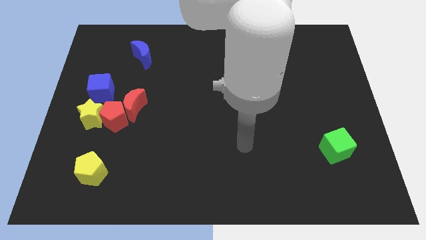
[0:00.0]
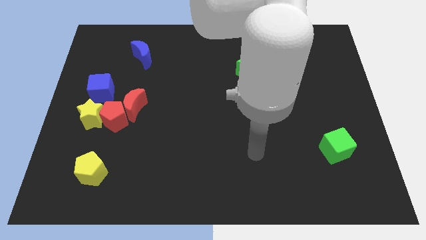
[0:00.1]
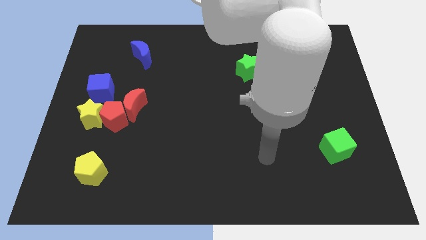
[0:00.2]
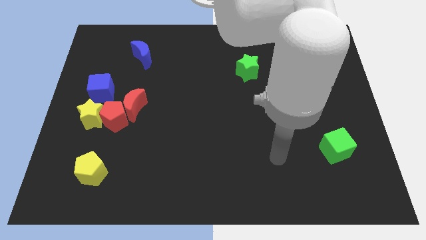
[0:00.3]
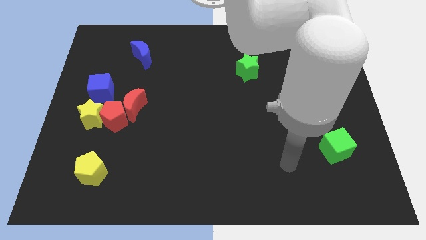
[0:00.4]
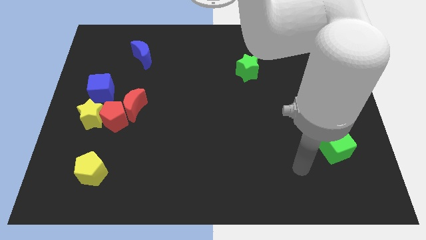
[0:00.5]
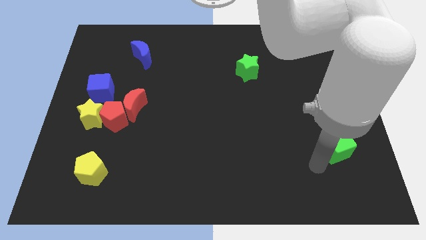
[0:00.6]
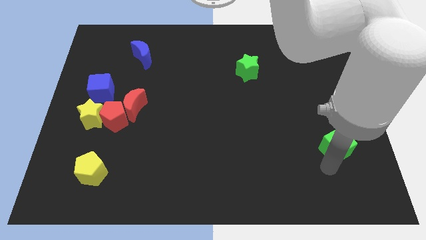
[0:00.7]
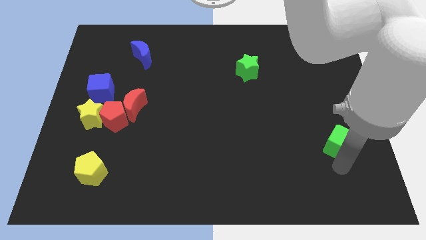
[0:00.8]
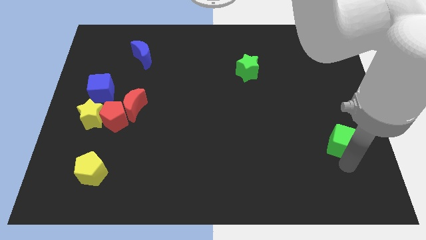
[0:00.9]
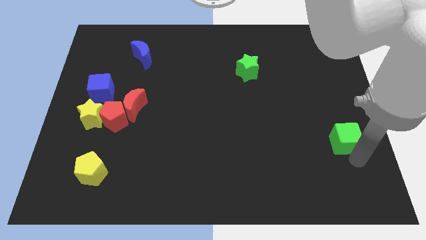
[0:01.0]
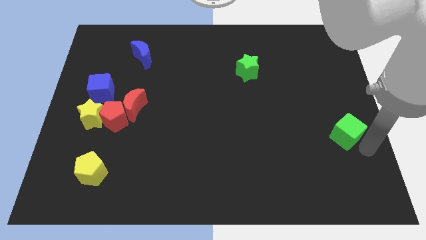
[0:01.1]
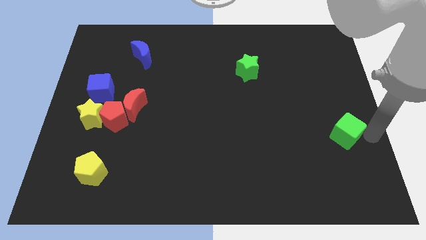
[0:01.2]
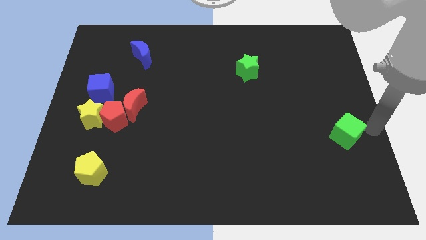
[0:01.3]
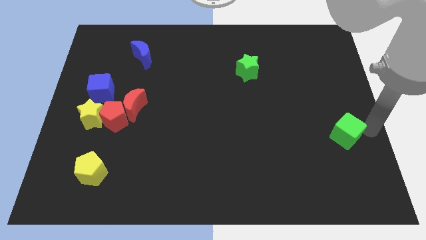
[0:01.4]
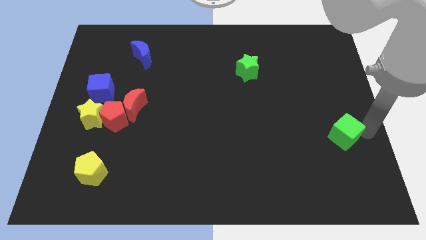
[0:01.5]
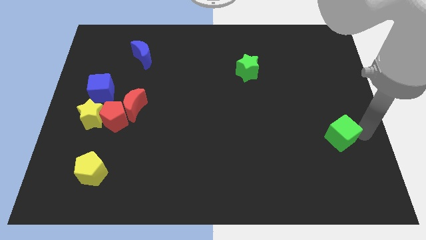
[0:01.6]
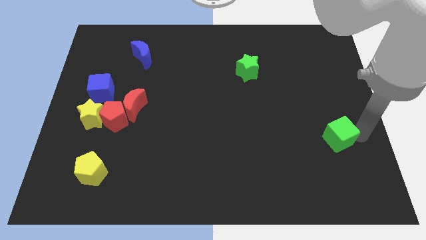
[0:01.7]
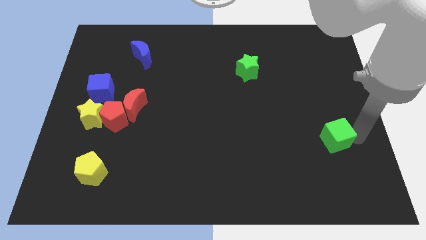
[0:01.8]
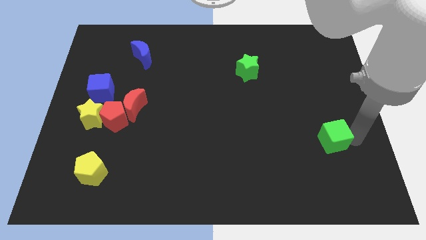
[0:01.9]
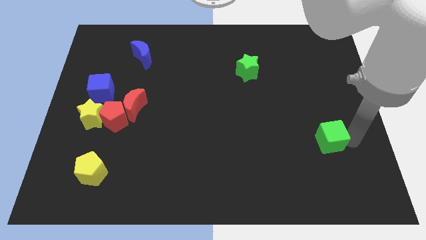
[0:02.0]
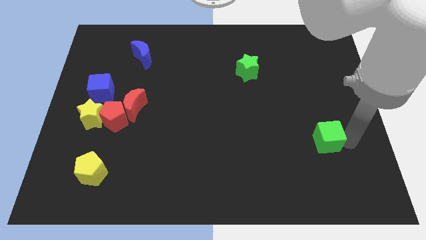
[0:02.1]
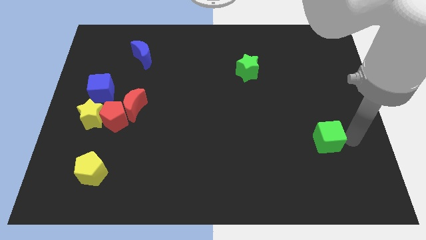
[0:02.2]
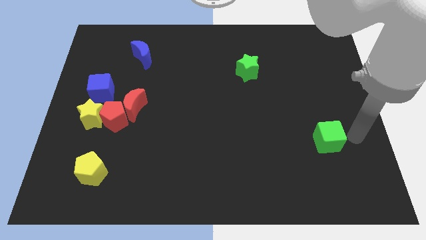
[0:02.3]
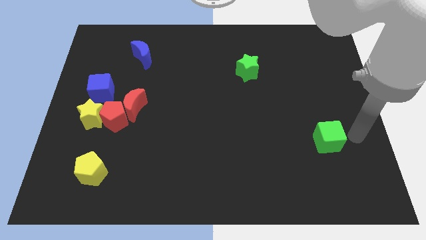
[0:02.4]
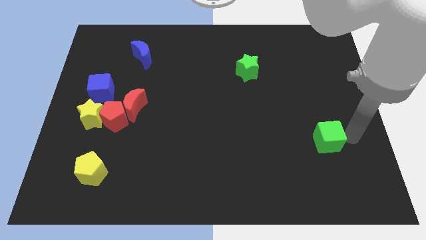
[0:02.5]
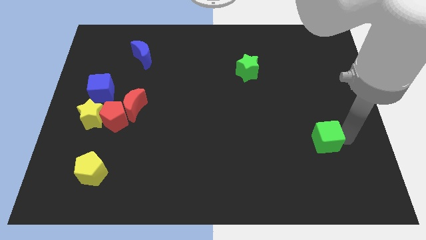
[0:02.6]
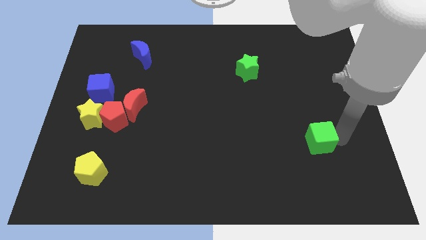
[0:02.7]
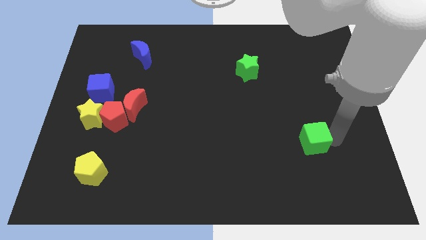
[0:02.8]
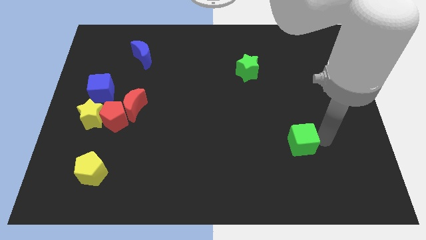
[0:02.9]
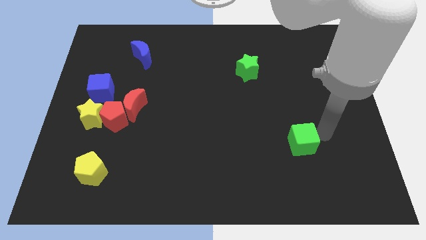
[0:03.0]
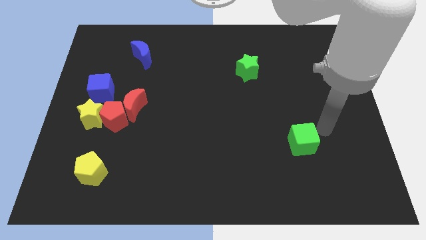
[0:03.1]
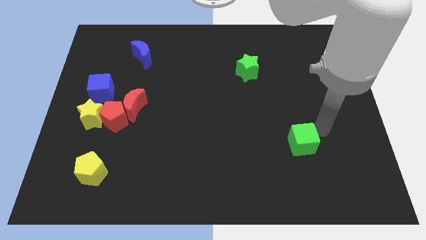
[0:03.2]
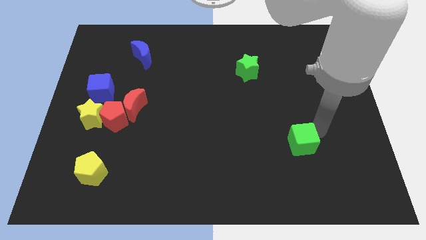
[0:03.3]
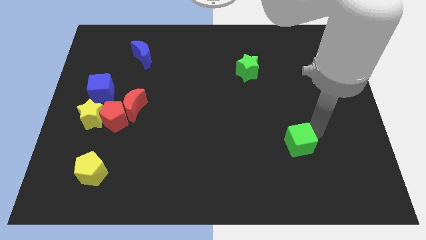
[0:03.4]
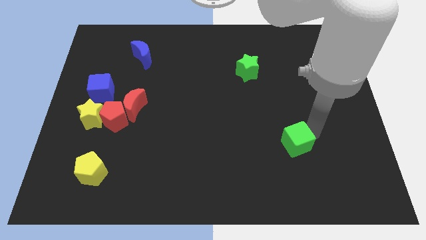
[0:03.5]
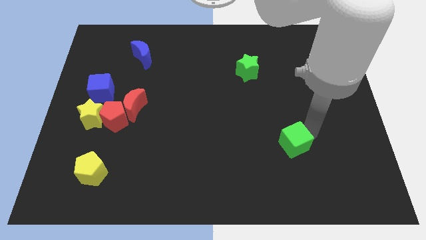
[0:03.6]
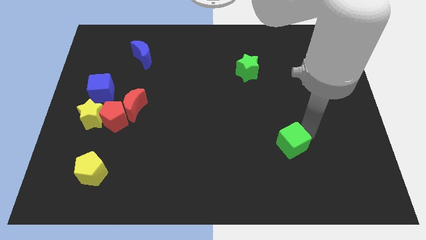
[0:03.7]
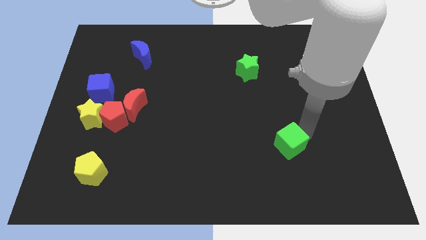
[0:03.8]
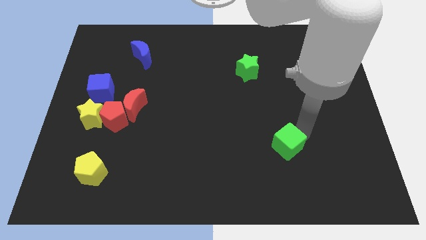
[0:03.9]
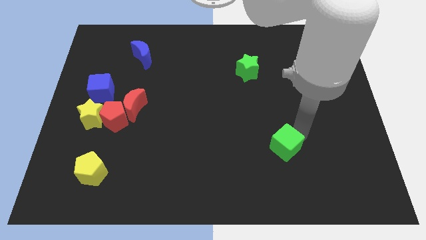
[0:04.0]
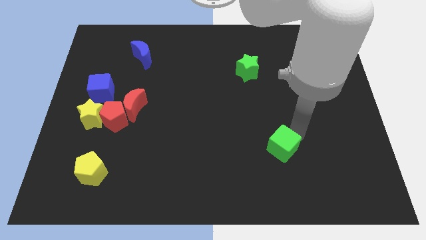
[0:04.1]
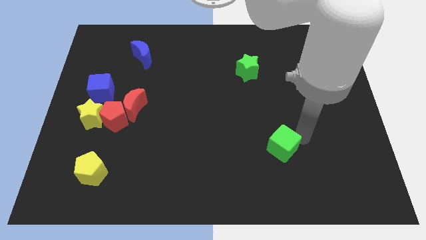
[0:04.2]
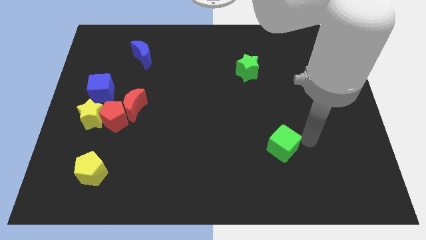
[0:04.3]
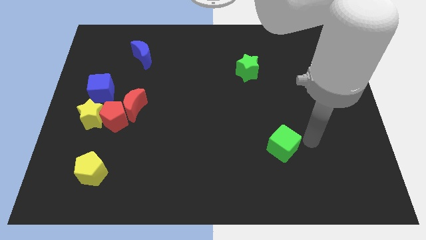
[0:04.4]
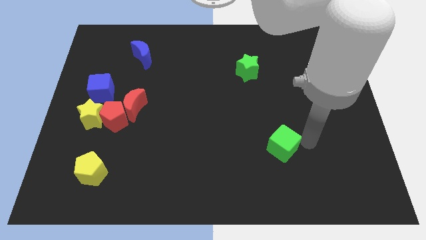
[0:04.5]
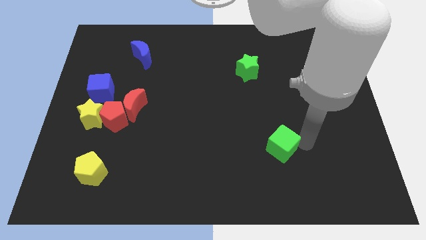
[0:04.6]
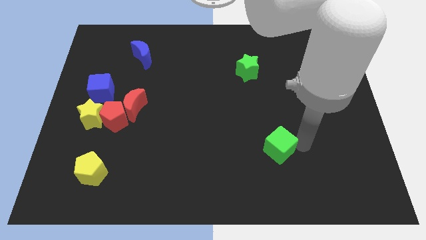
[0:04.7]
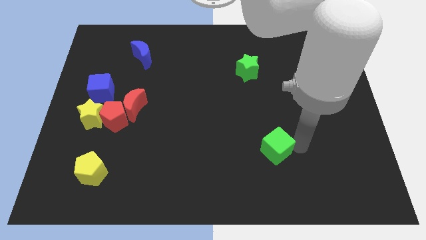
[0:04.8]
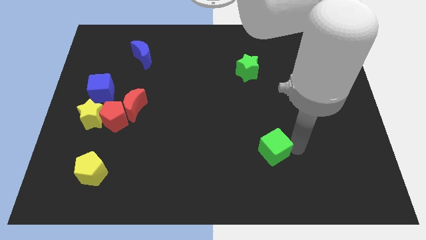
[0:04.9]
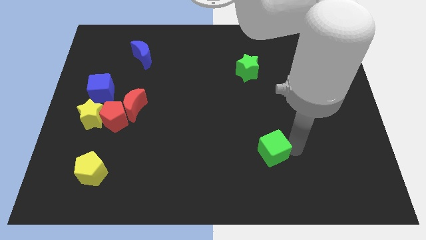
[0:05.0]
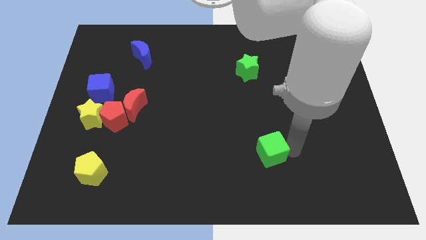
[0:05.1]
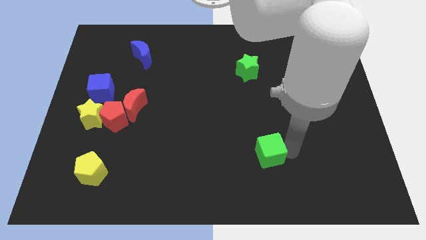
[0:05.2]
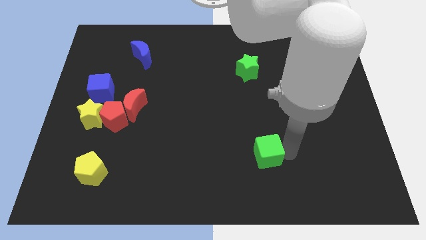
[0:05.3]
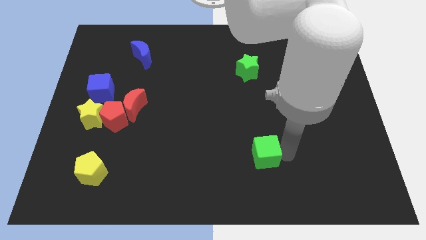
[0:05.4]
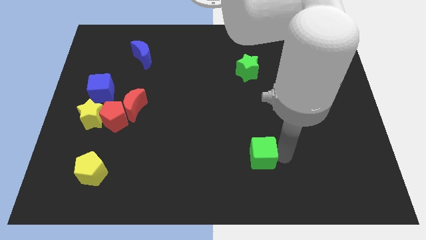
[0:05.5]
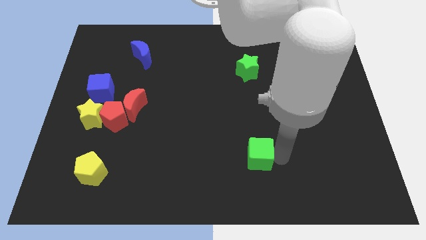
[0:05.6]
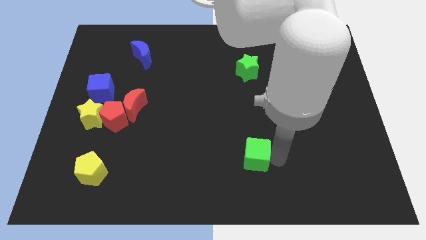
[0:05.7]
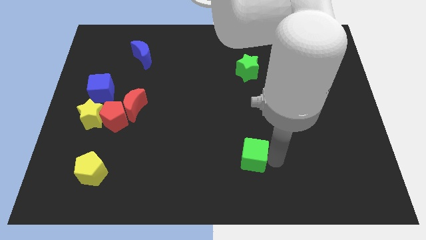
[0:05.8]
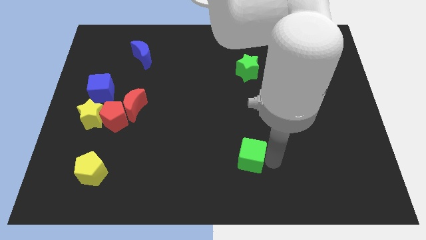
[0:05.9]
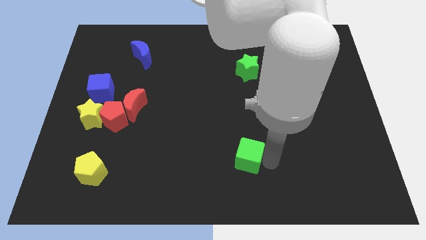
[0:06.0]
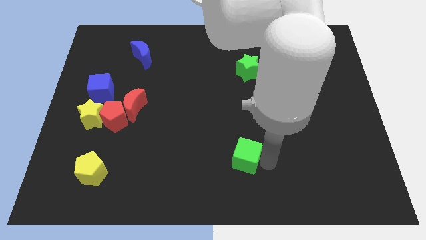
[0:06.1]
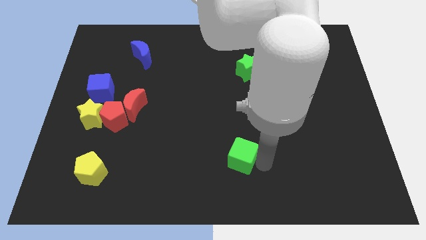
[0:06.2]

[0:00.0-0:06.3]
slide the green cube to the left

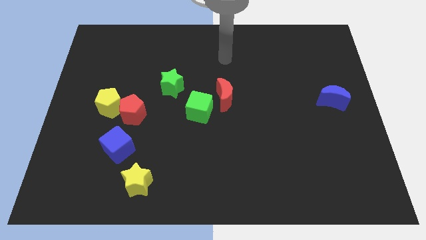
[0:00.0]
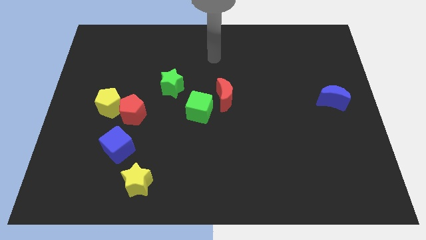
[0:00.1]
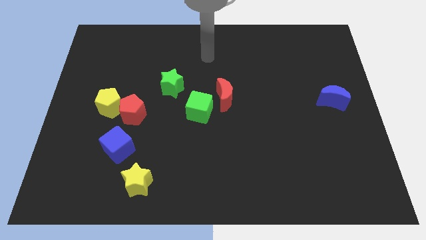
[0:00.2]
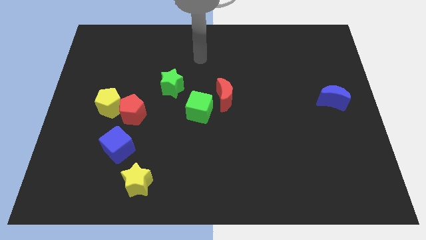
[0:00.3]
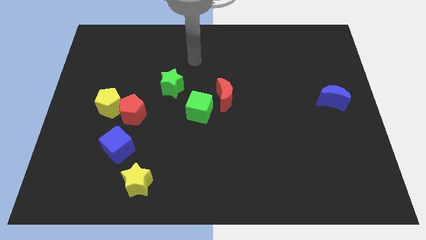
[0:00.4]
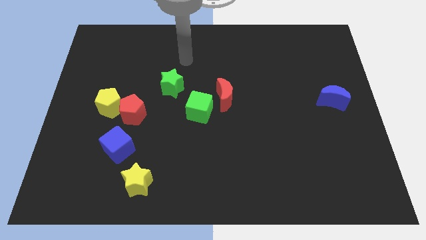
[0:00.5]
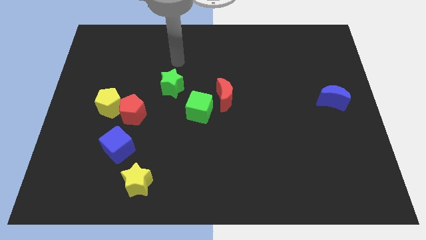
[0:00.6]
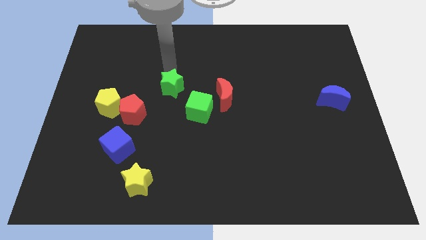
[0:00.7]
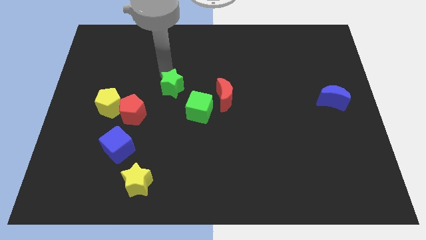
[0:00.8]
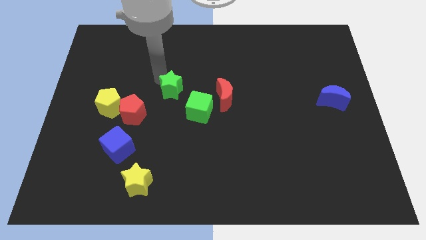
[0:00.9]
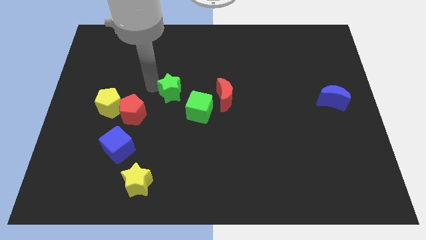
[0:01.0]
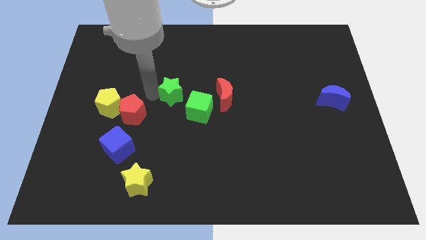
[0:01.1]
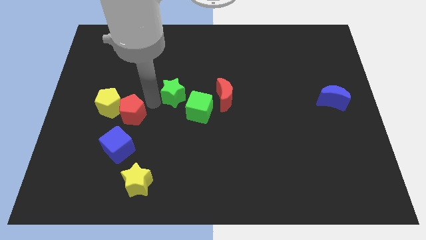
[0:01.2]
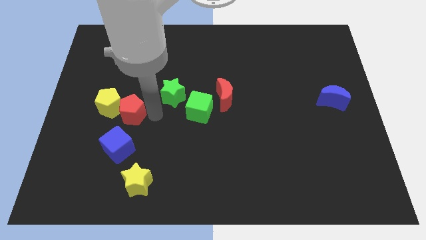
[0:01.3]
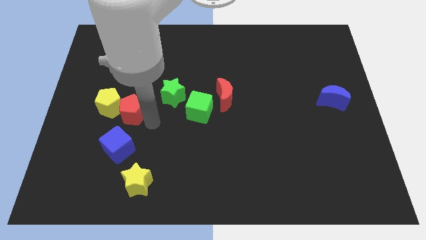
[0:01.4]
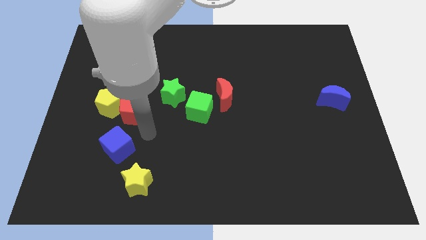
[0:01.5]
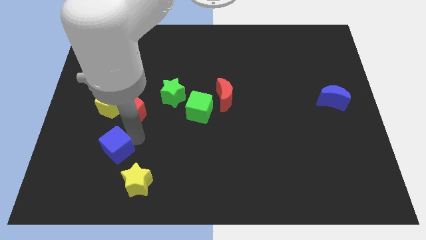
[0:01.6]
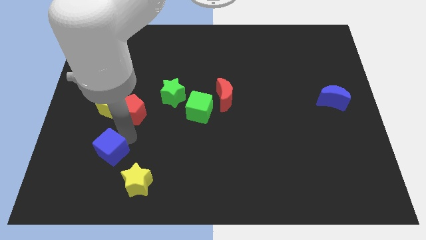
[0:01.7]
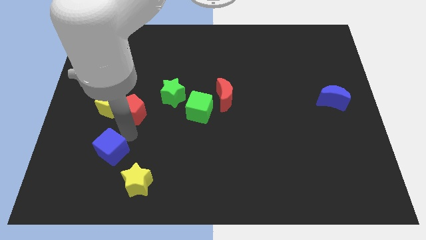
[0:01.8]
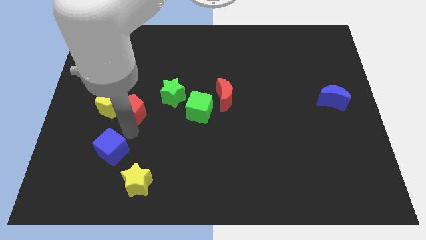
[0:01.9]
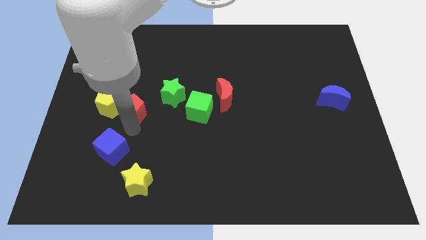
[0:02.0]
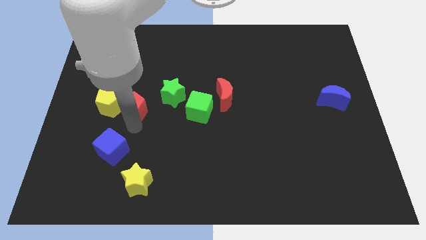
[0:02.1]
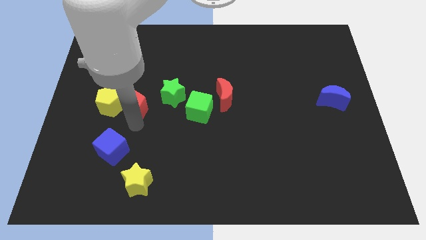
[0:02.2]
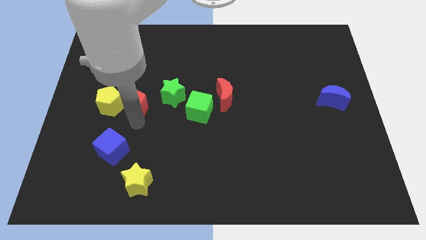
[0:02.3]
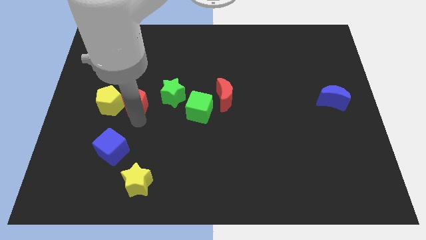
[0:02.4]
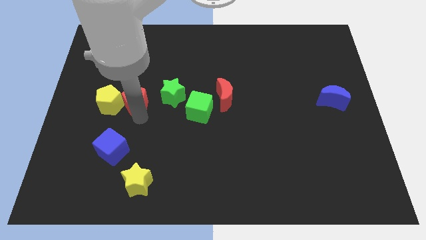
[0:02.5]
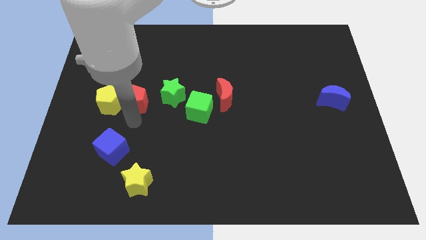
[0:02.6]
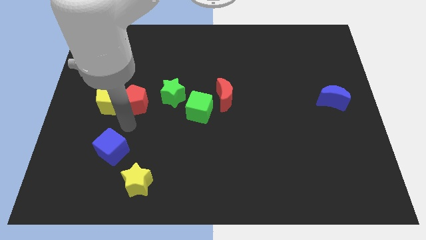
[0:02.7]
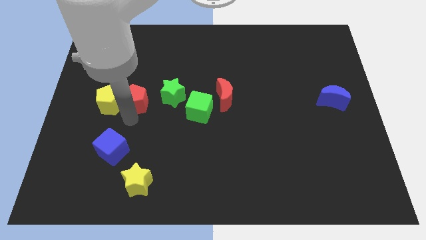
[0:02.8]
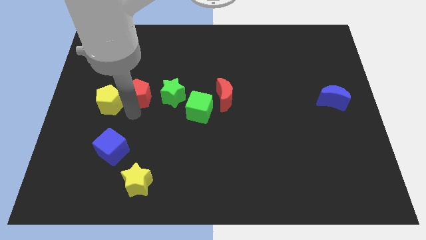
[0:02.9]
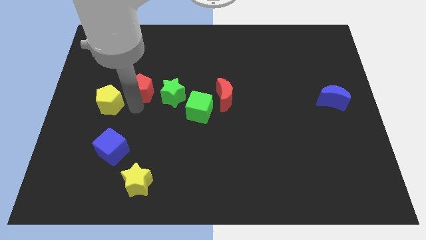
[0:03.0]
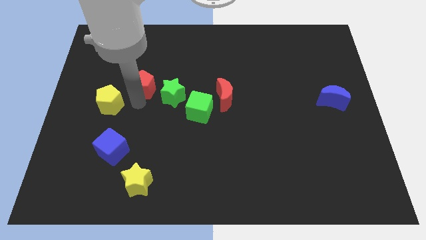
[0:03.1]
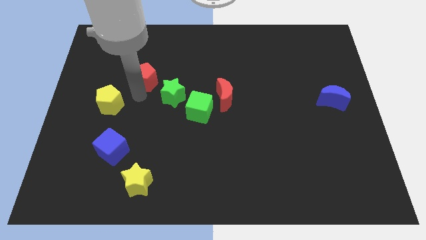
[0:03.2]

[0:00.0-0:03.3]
slide the red pentagon somewhat upwards and then to the right
